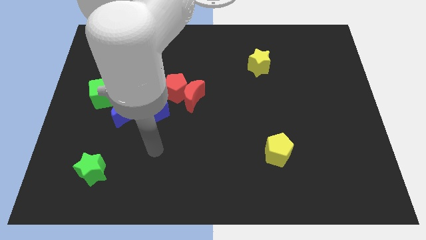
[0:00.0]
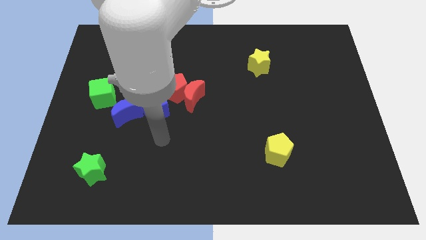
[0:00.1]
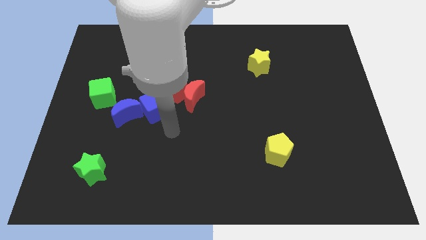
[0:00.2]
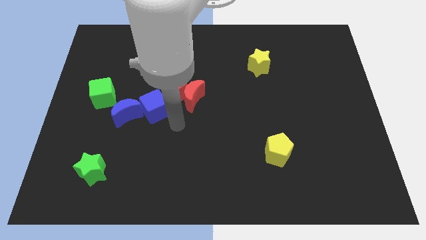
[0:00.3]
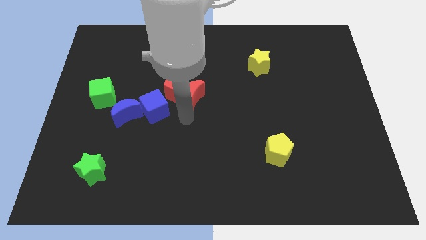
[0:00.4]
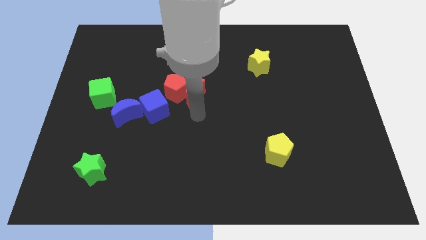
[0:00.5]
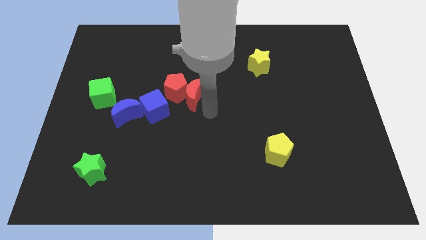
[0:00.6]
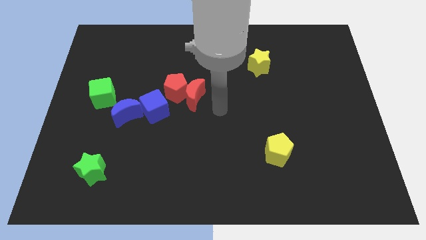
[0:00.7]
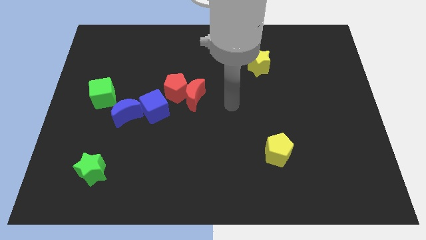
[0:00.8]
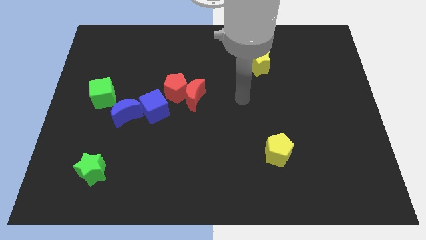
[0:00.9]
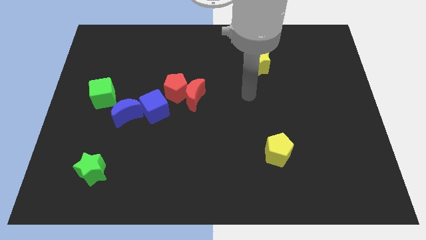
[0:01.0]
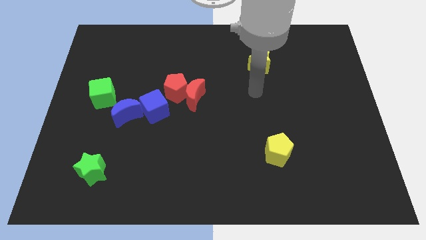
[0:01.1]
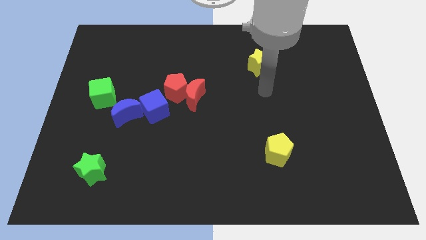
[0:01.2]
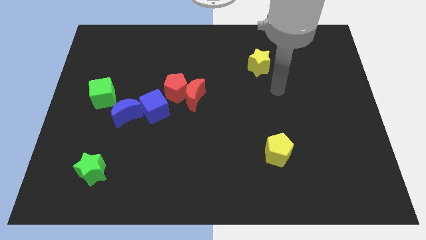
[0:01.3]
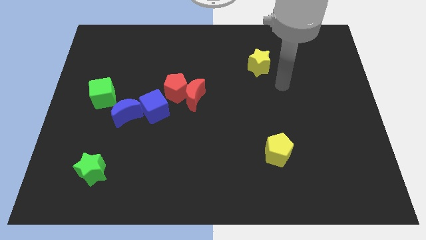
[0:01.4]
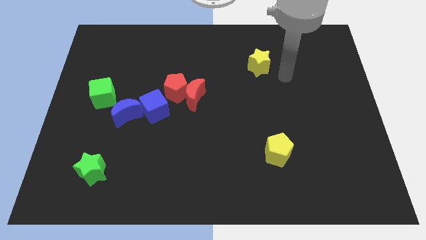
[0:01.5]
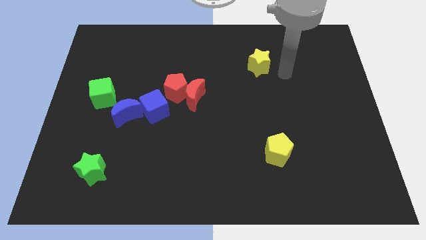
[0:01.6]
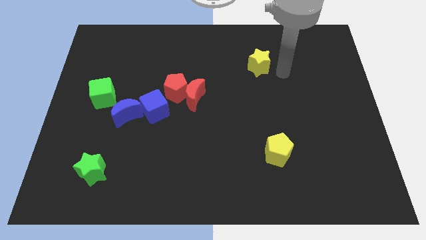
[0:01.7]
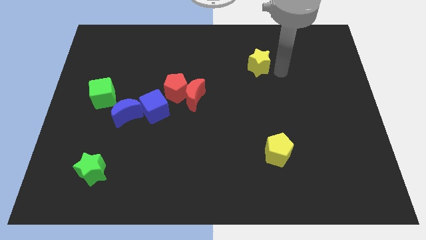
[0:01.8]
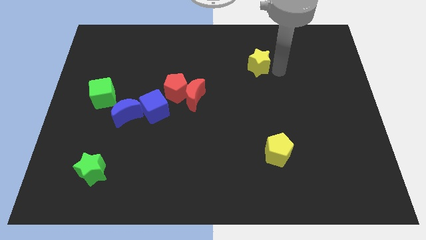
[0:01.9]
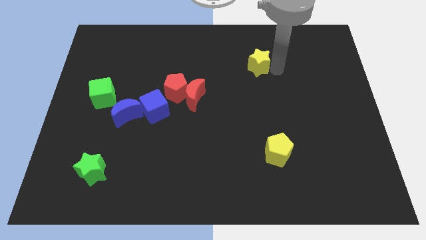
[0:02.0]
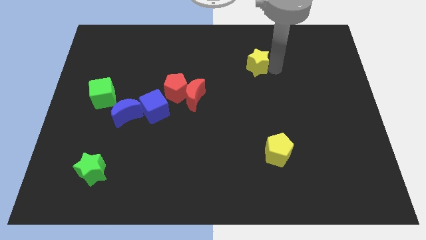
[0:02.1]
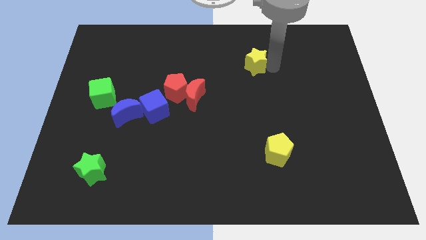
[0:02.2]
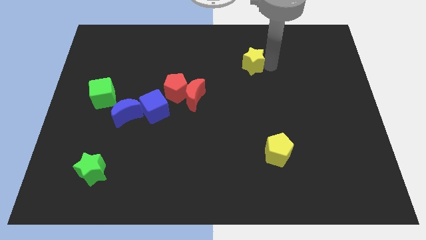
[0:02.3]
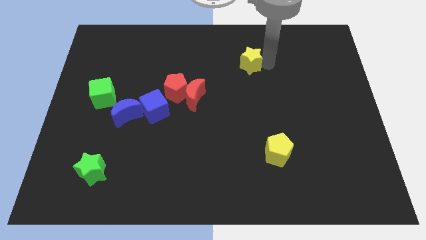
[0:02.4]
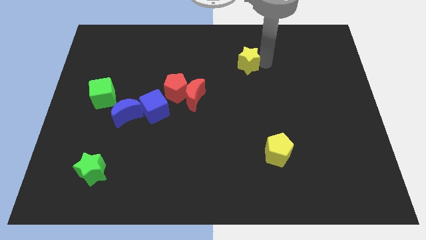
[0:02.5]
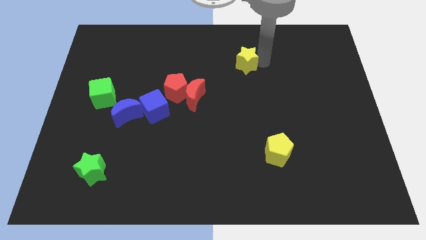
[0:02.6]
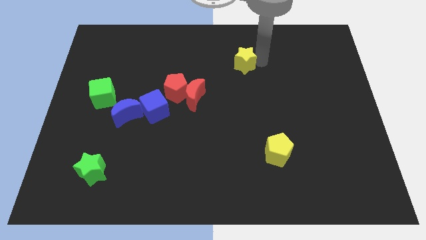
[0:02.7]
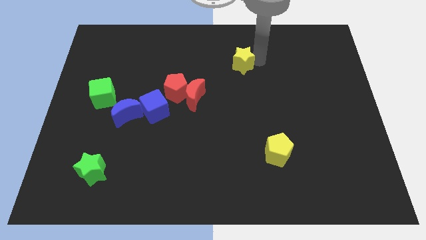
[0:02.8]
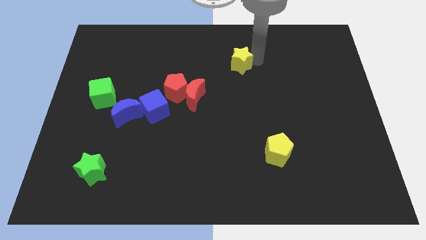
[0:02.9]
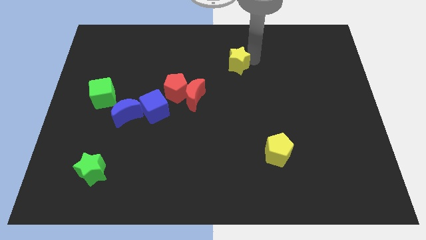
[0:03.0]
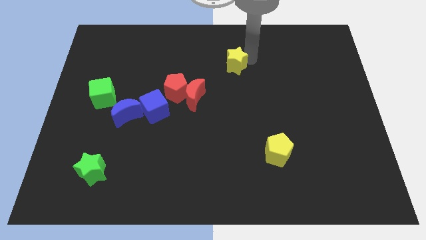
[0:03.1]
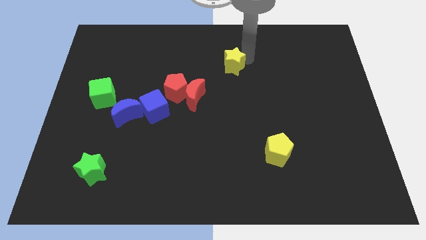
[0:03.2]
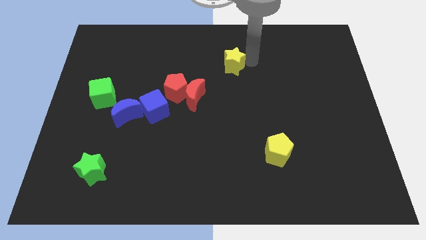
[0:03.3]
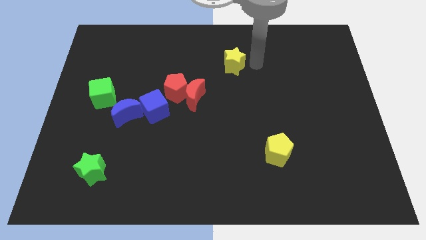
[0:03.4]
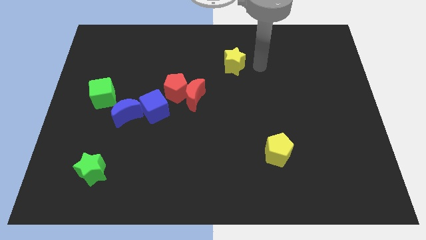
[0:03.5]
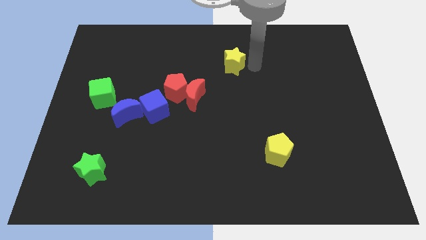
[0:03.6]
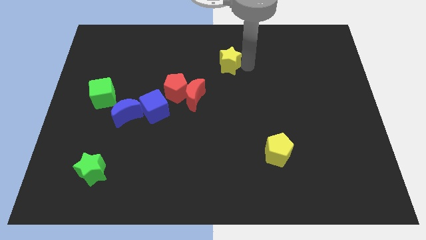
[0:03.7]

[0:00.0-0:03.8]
slide the yellow star to the left a bit

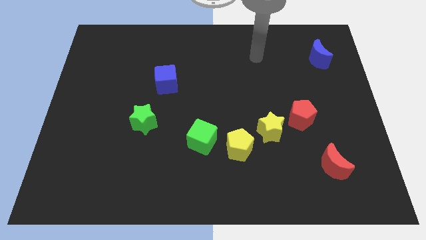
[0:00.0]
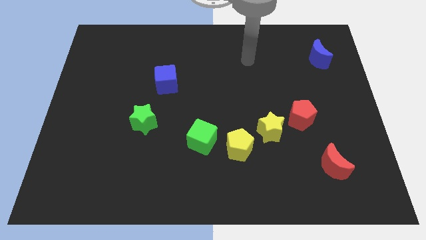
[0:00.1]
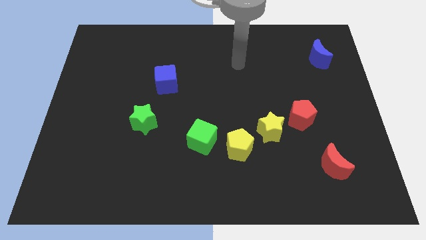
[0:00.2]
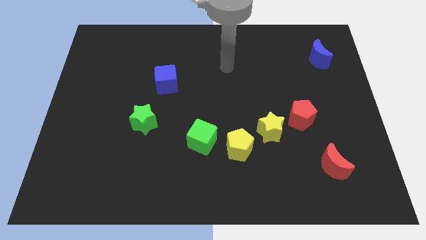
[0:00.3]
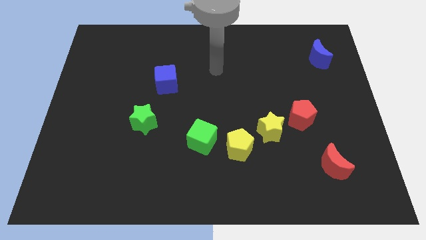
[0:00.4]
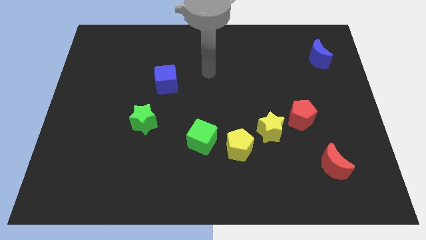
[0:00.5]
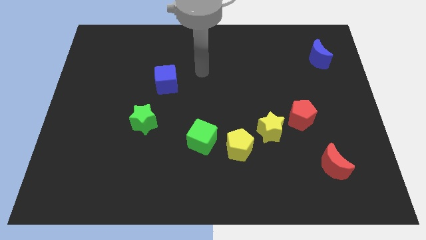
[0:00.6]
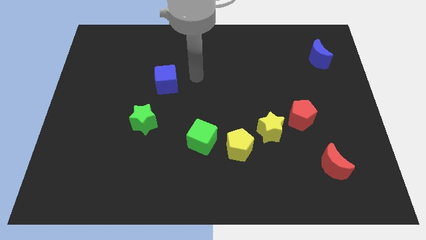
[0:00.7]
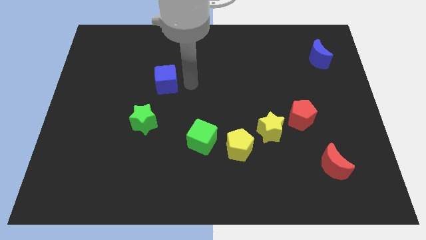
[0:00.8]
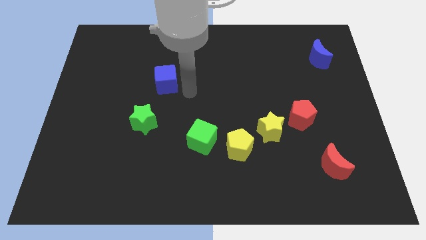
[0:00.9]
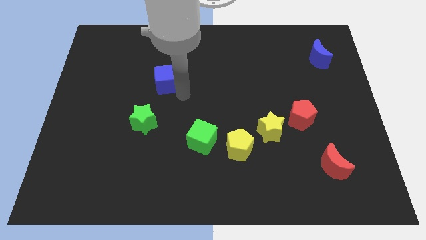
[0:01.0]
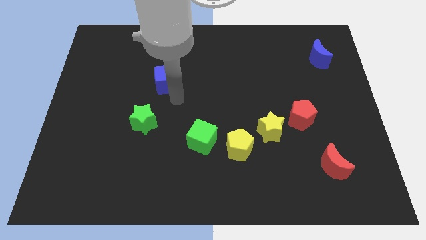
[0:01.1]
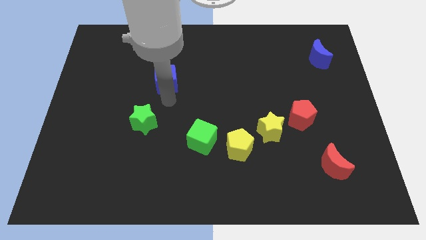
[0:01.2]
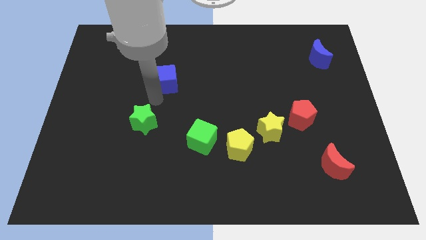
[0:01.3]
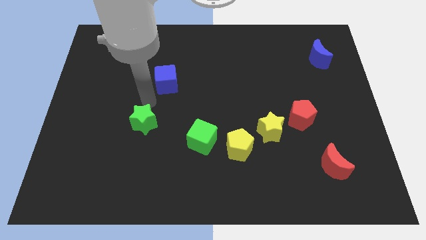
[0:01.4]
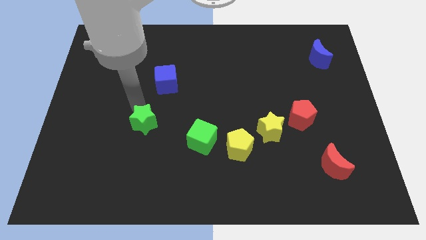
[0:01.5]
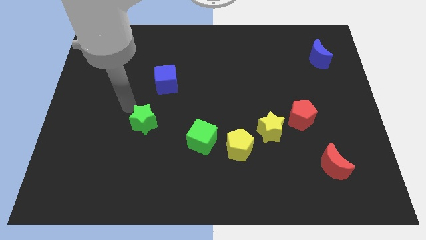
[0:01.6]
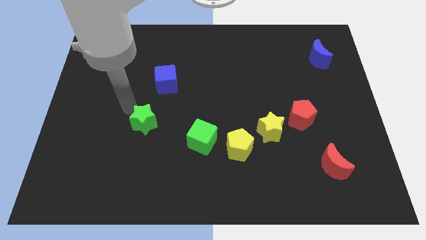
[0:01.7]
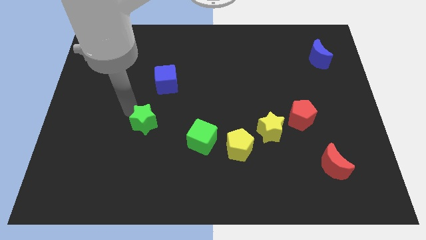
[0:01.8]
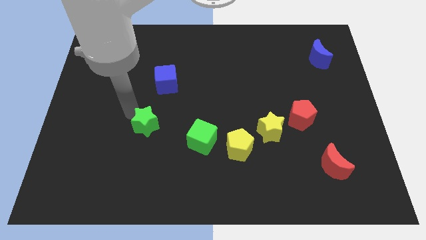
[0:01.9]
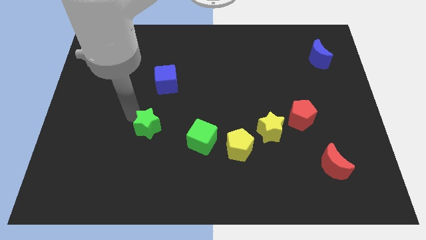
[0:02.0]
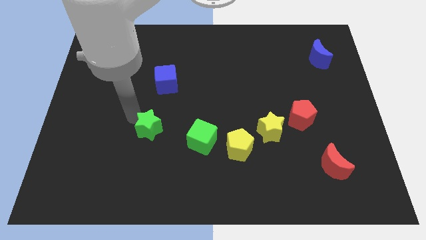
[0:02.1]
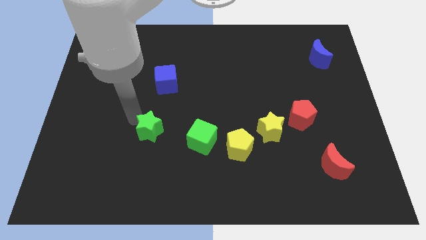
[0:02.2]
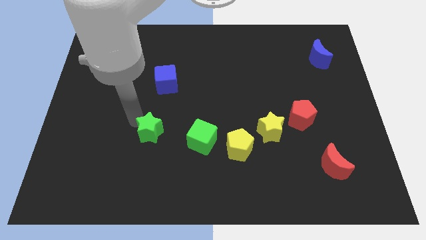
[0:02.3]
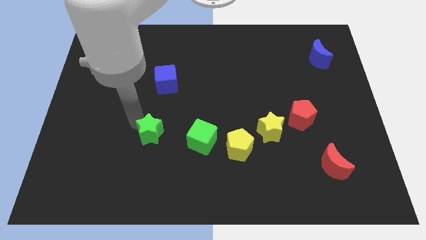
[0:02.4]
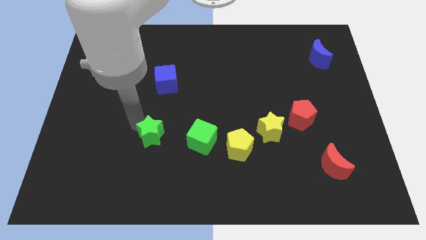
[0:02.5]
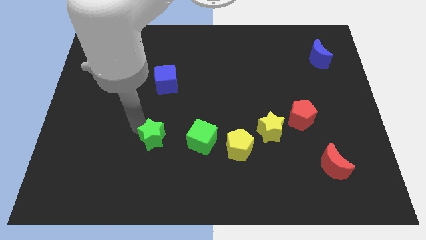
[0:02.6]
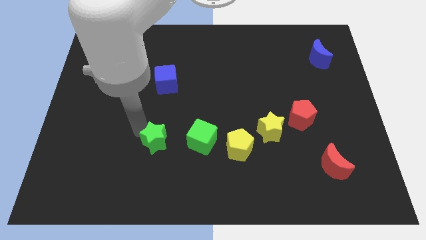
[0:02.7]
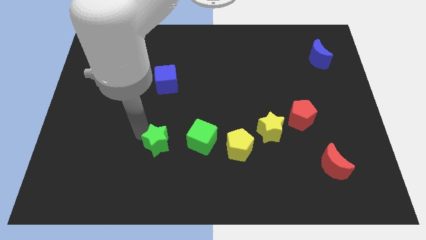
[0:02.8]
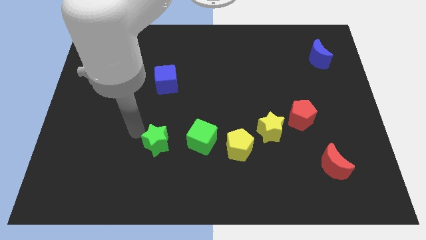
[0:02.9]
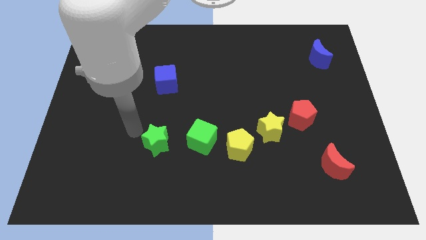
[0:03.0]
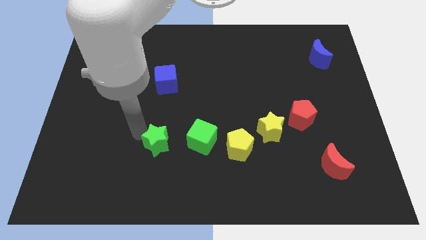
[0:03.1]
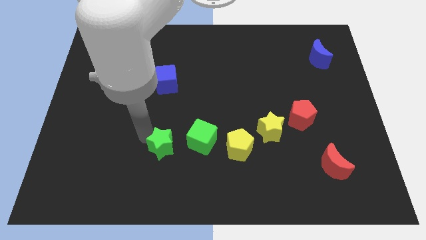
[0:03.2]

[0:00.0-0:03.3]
slightly move the green star downwards and to the right diagonally

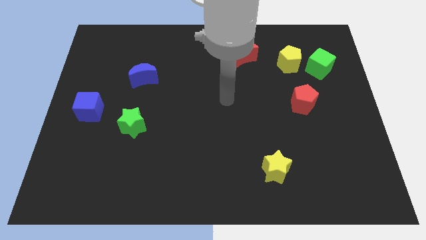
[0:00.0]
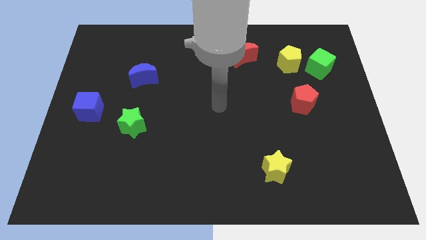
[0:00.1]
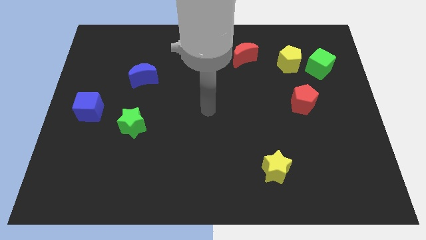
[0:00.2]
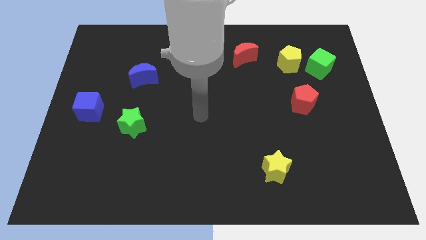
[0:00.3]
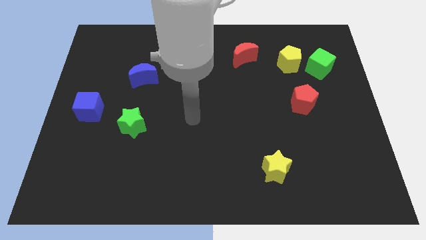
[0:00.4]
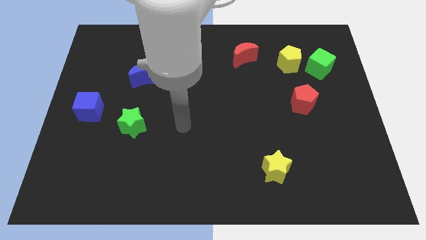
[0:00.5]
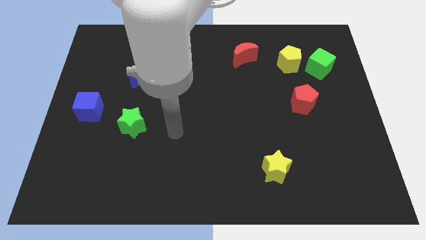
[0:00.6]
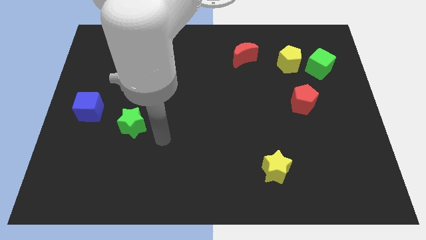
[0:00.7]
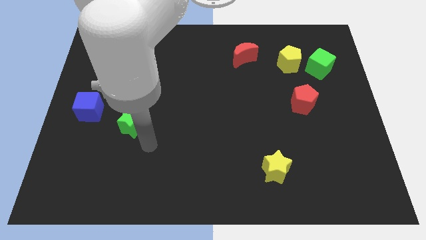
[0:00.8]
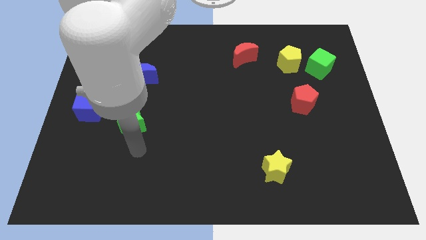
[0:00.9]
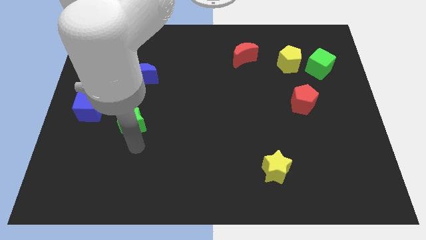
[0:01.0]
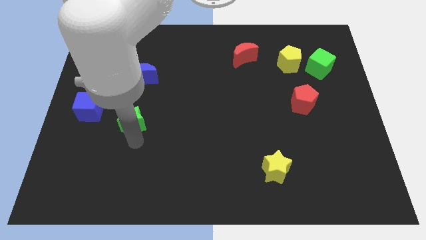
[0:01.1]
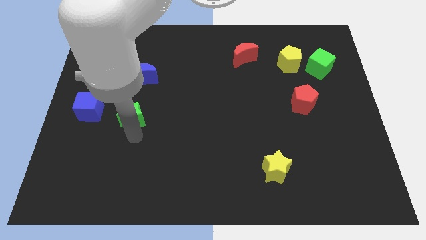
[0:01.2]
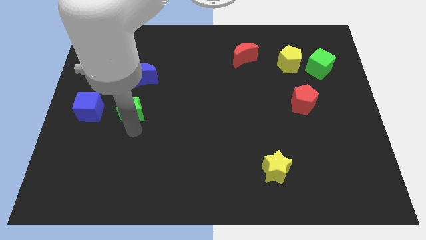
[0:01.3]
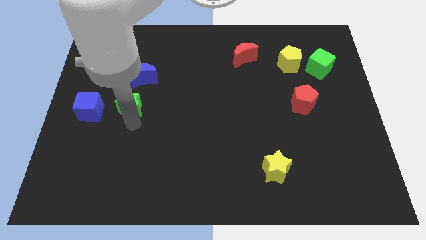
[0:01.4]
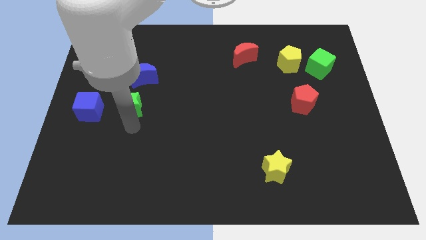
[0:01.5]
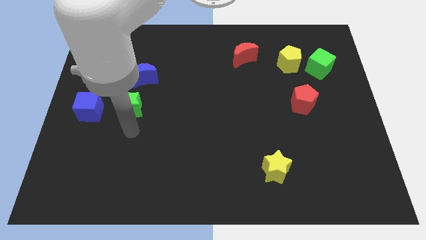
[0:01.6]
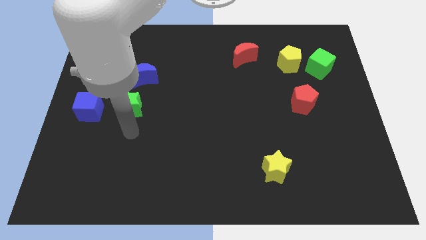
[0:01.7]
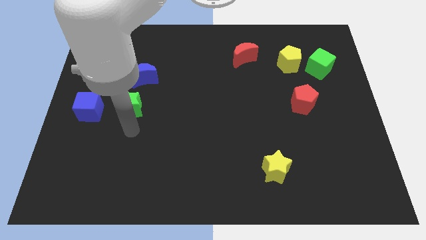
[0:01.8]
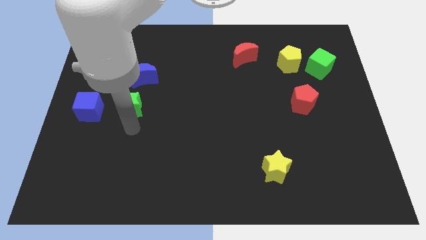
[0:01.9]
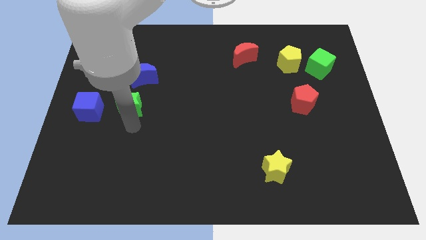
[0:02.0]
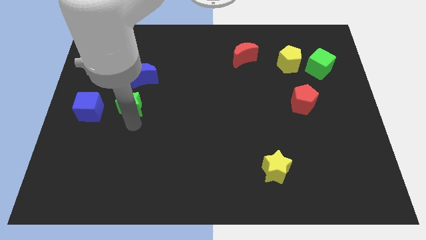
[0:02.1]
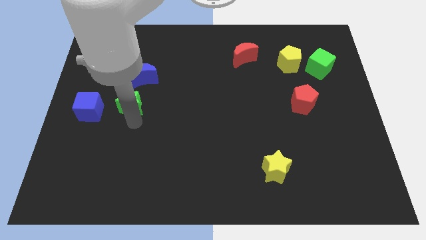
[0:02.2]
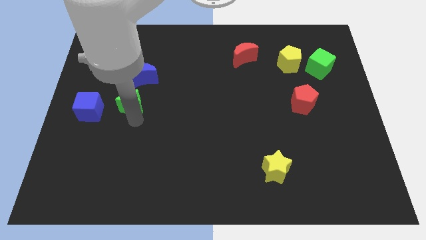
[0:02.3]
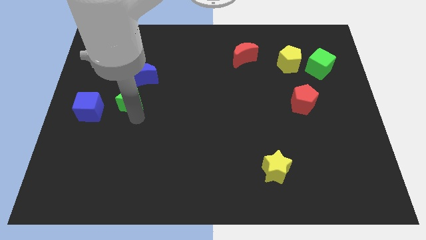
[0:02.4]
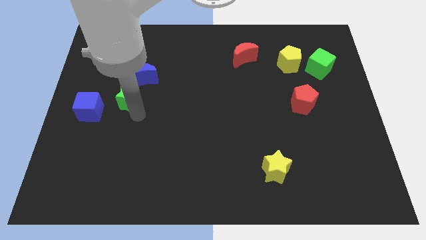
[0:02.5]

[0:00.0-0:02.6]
move the green star up a bit
